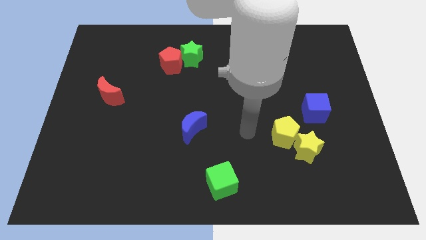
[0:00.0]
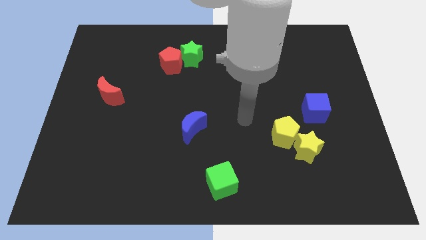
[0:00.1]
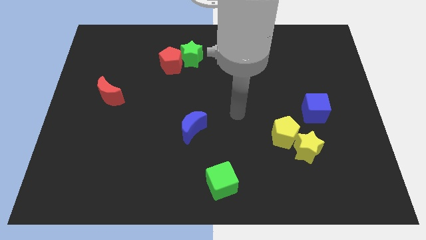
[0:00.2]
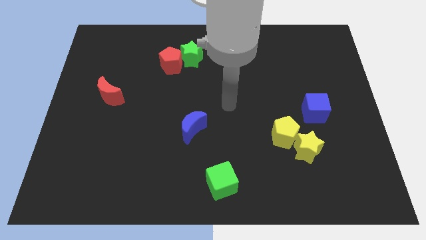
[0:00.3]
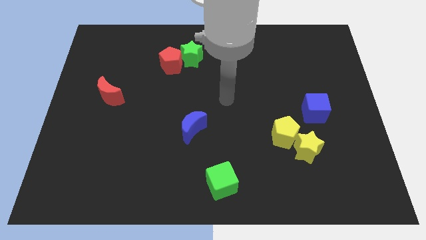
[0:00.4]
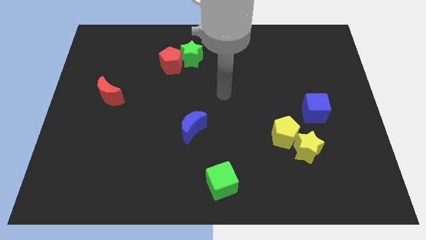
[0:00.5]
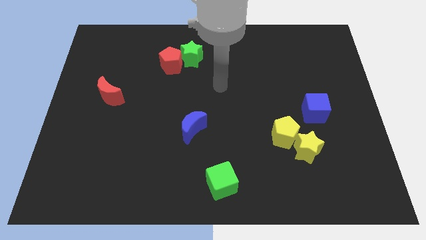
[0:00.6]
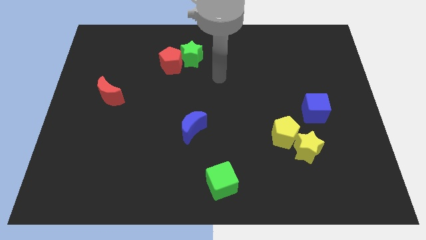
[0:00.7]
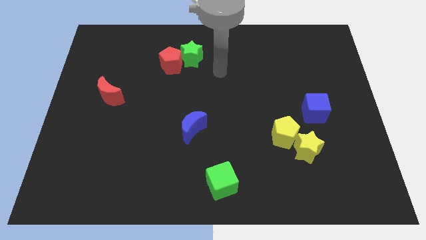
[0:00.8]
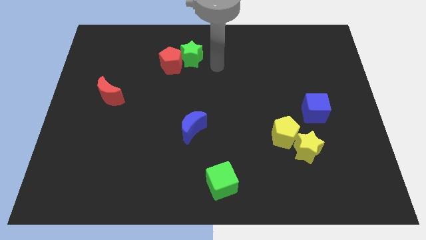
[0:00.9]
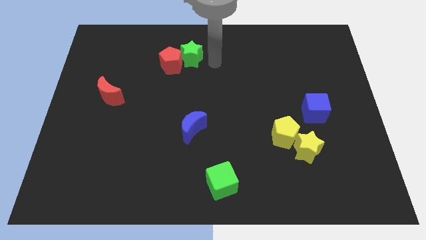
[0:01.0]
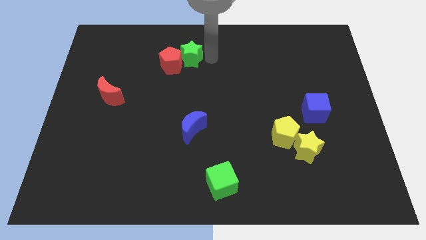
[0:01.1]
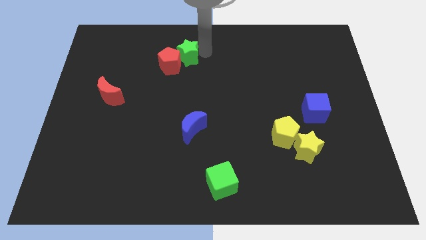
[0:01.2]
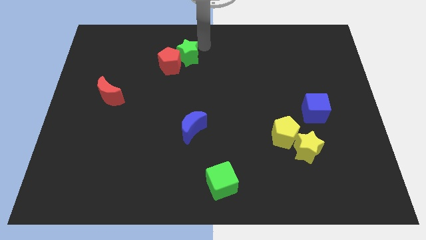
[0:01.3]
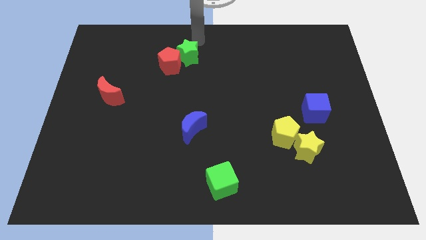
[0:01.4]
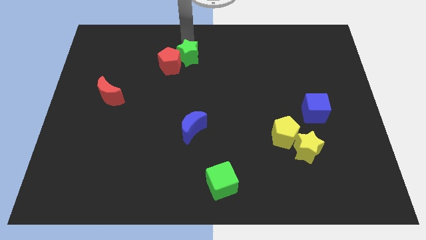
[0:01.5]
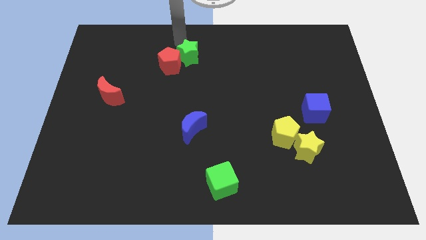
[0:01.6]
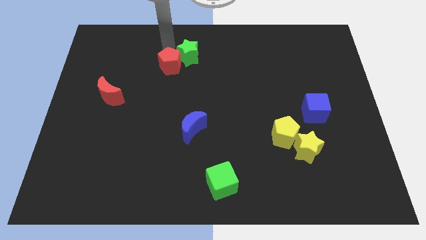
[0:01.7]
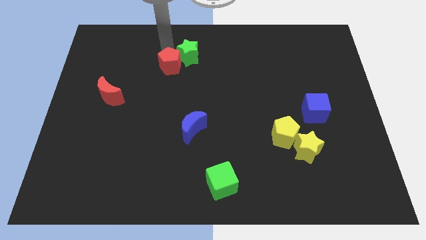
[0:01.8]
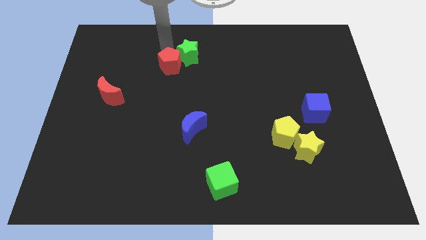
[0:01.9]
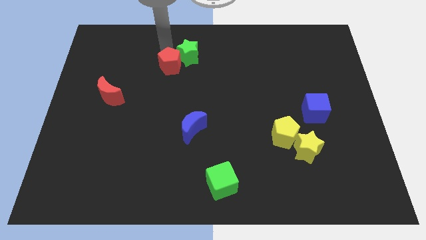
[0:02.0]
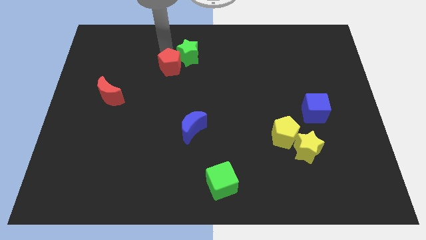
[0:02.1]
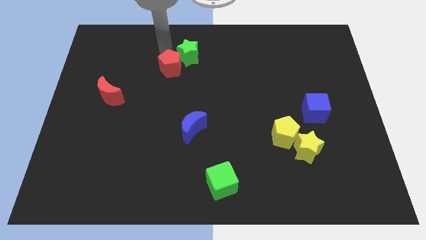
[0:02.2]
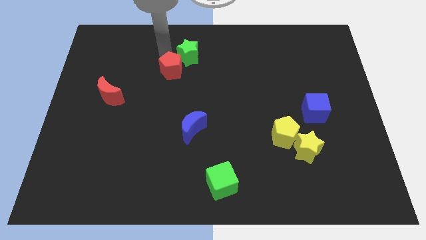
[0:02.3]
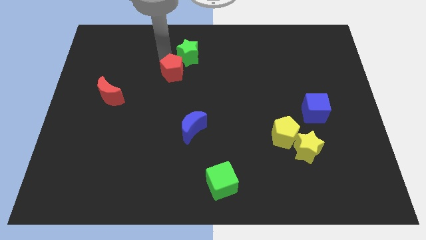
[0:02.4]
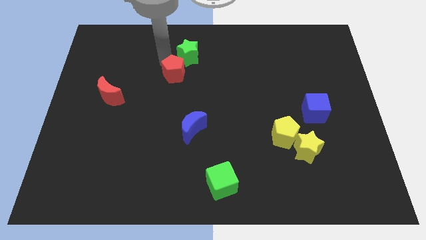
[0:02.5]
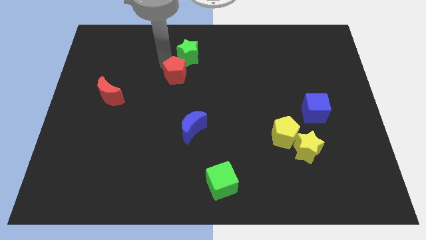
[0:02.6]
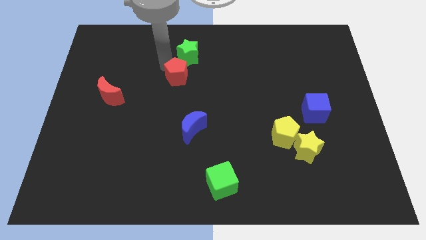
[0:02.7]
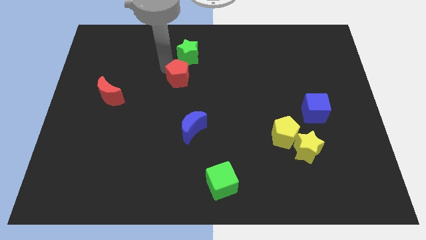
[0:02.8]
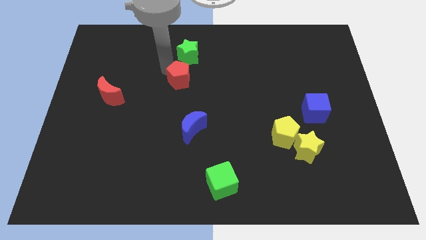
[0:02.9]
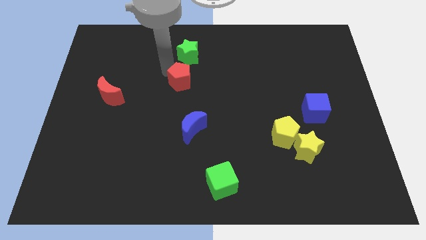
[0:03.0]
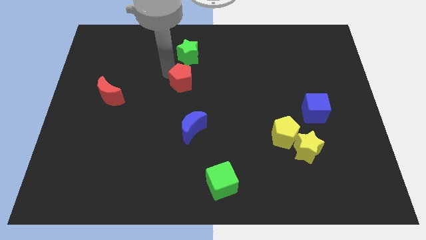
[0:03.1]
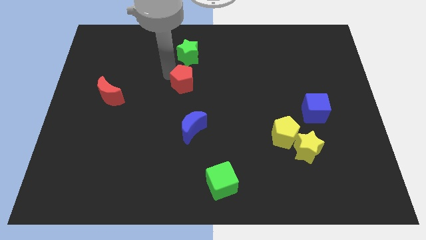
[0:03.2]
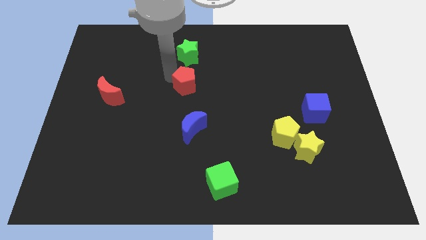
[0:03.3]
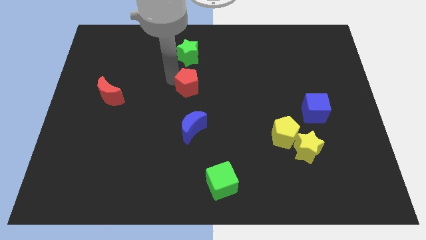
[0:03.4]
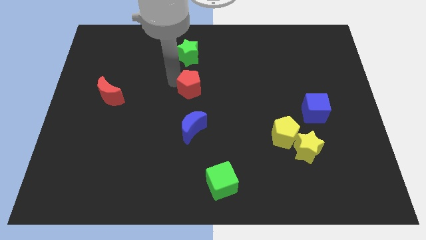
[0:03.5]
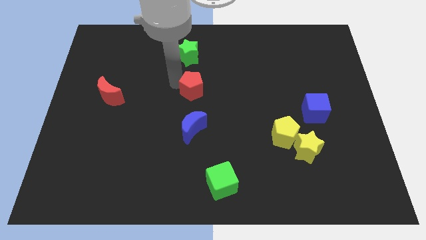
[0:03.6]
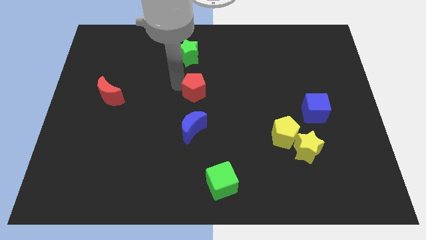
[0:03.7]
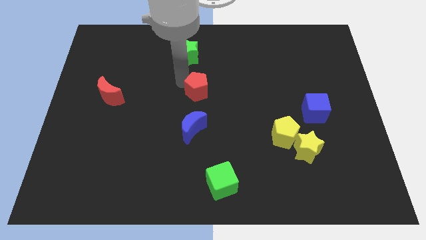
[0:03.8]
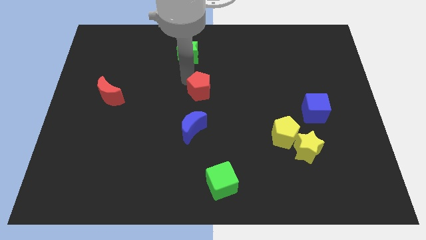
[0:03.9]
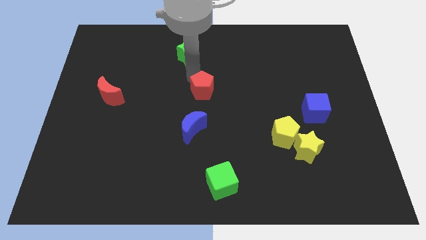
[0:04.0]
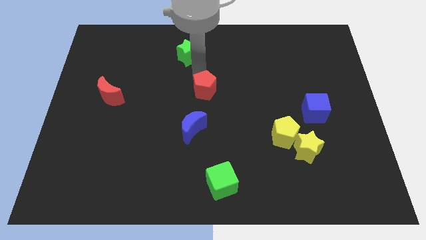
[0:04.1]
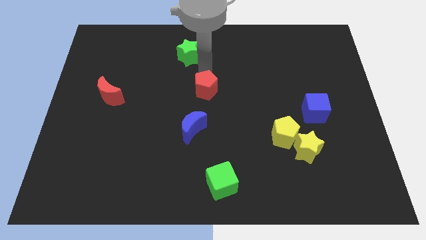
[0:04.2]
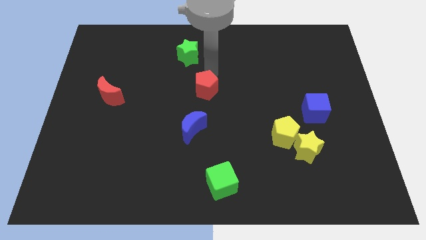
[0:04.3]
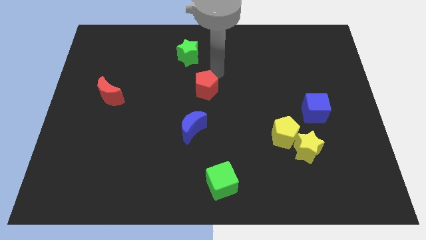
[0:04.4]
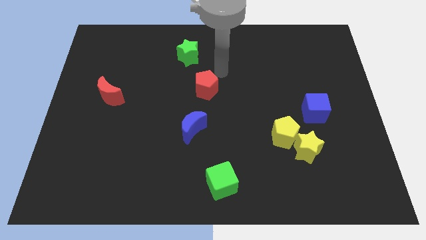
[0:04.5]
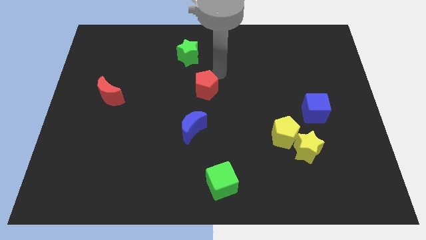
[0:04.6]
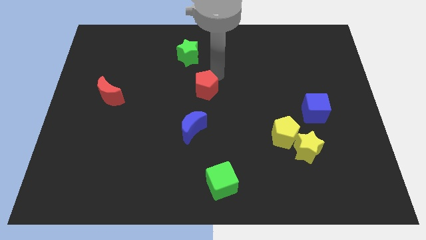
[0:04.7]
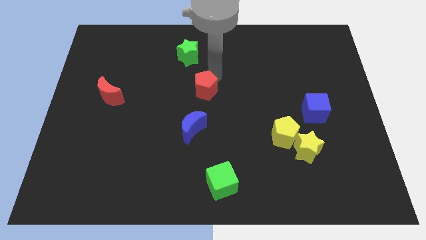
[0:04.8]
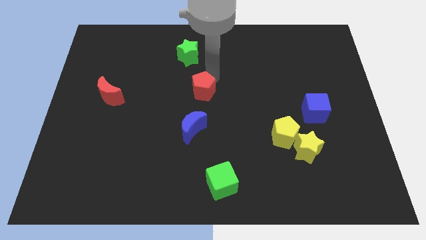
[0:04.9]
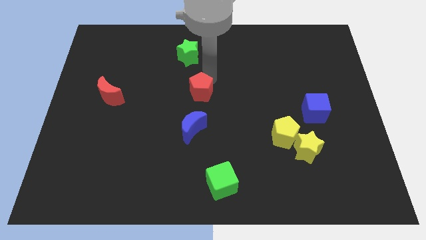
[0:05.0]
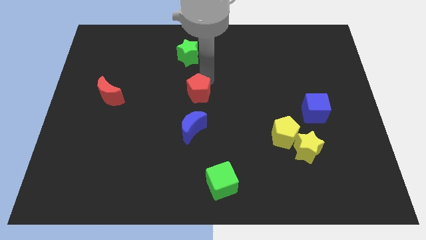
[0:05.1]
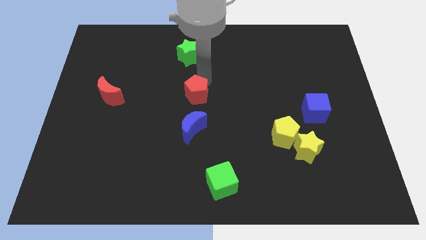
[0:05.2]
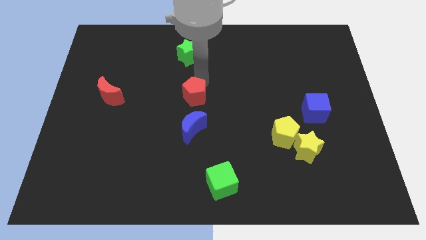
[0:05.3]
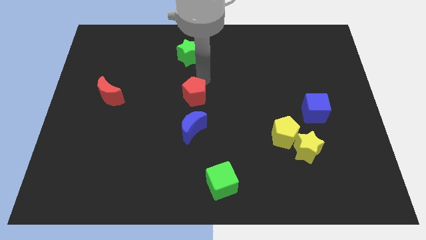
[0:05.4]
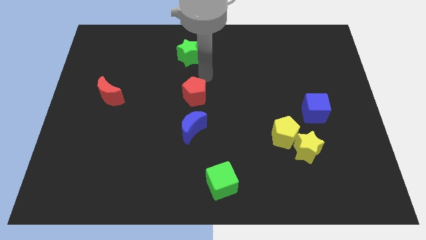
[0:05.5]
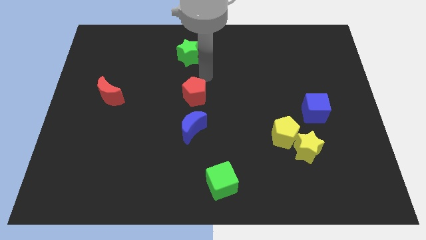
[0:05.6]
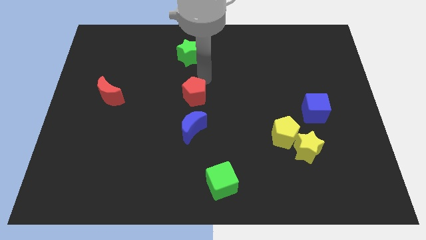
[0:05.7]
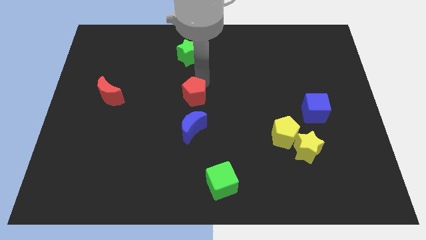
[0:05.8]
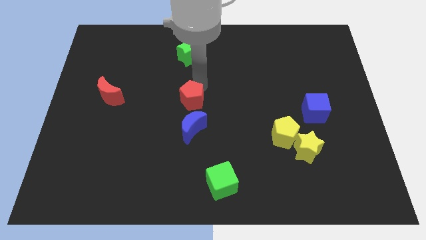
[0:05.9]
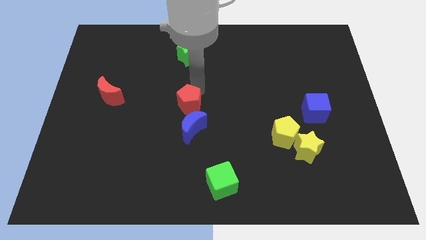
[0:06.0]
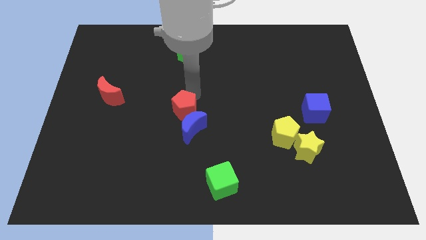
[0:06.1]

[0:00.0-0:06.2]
move the red pentagon to the blue moon

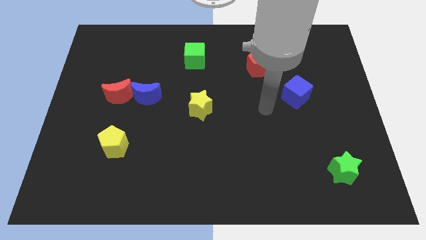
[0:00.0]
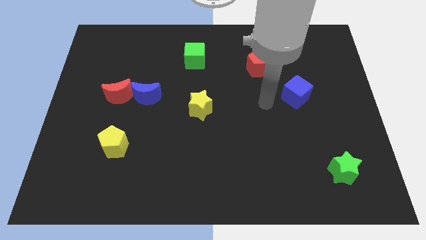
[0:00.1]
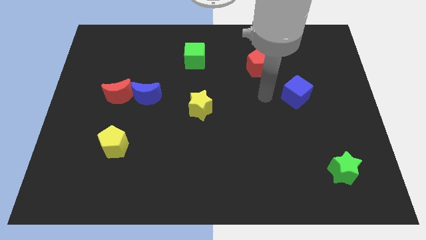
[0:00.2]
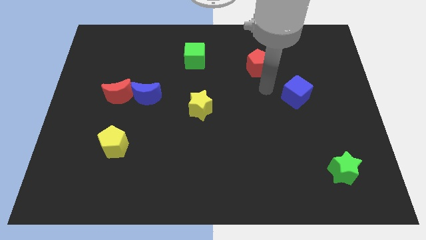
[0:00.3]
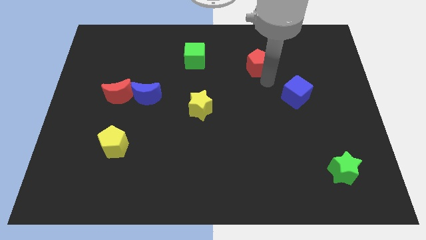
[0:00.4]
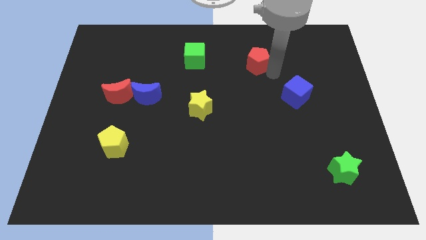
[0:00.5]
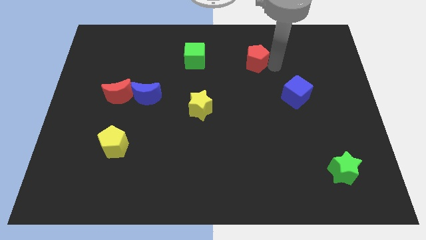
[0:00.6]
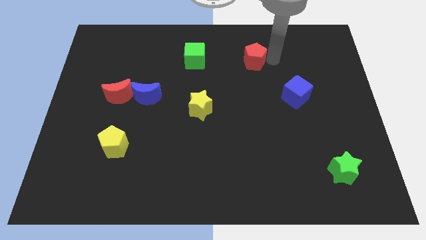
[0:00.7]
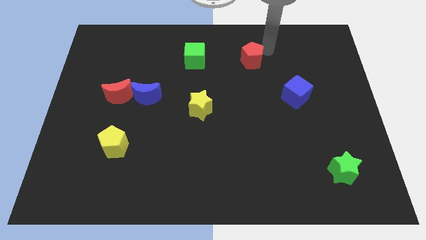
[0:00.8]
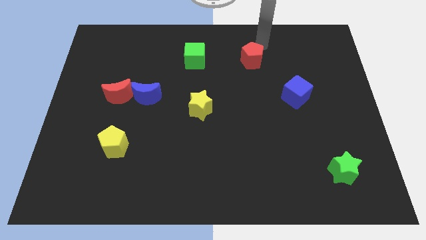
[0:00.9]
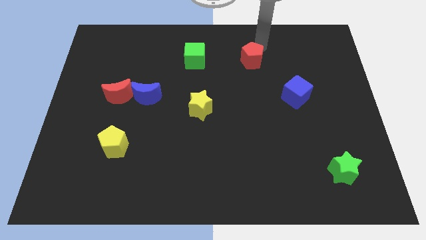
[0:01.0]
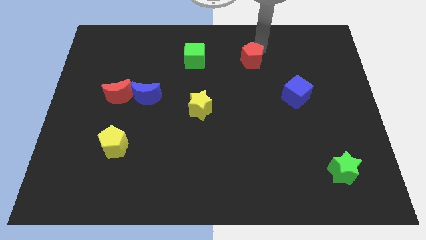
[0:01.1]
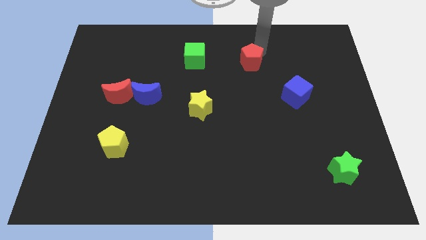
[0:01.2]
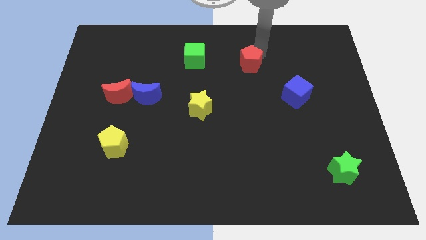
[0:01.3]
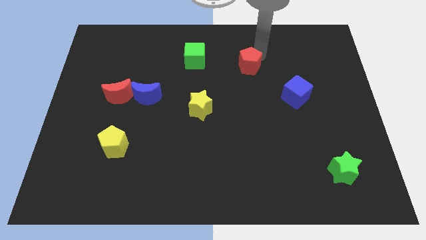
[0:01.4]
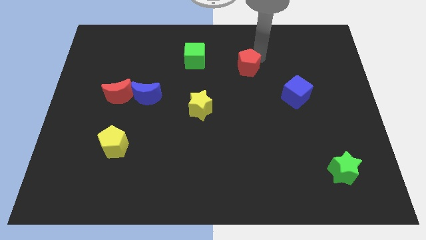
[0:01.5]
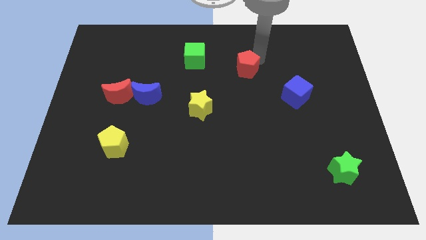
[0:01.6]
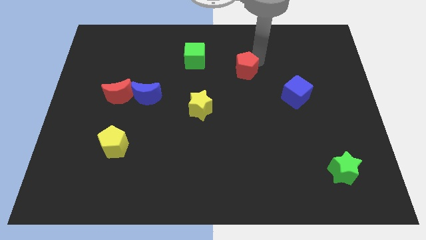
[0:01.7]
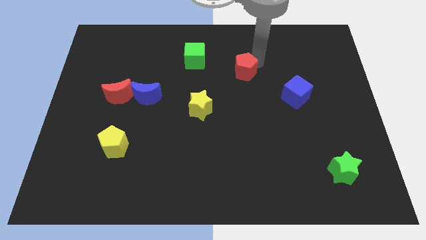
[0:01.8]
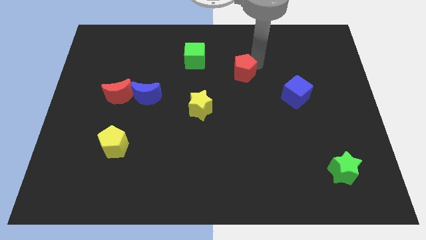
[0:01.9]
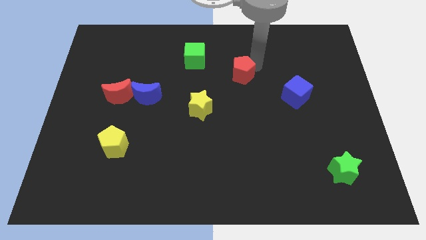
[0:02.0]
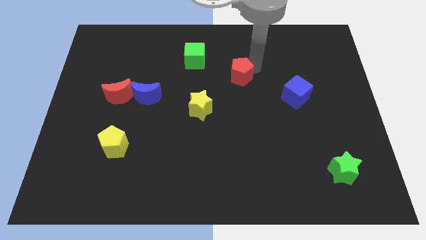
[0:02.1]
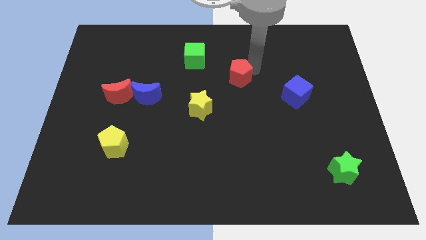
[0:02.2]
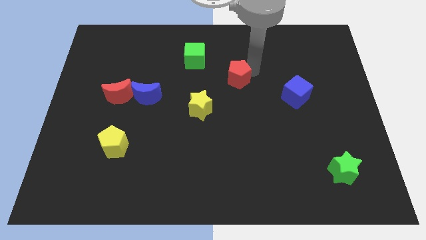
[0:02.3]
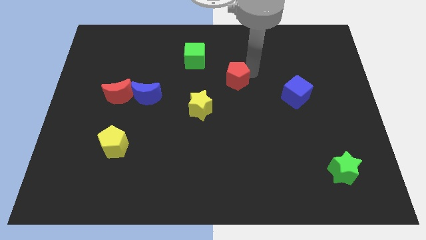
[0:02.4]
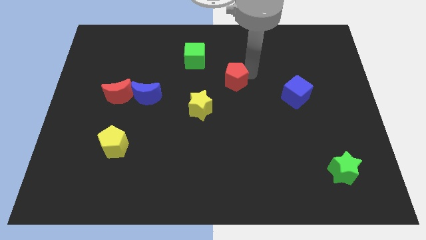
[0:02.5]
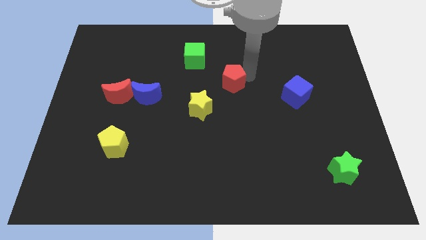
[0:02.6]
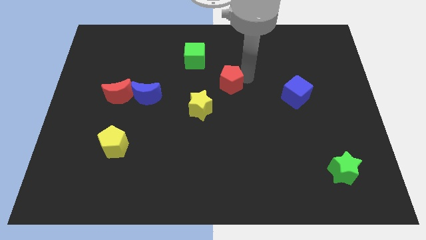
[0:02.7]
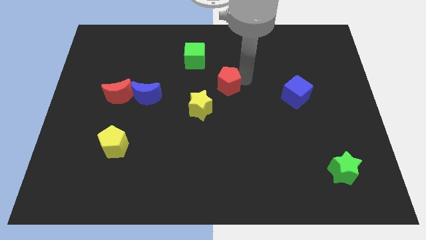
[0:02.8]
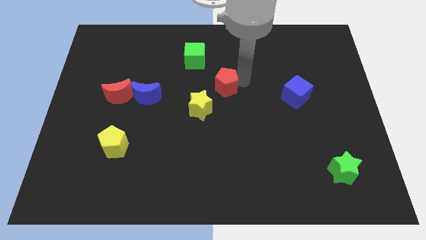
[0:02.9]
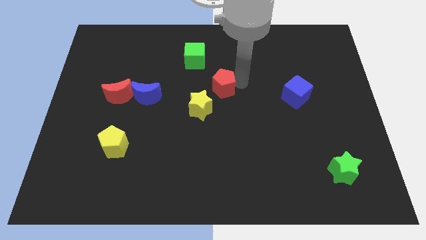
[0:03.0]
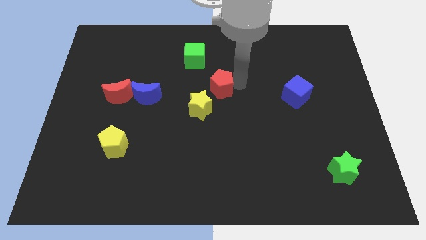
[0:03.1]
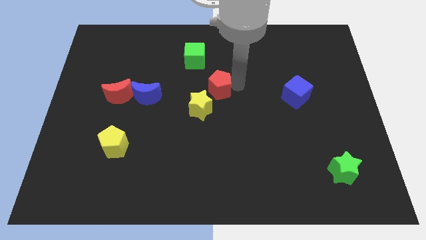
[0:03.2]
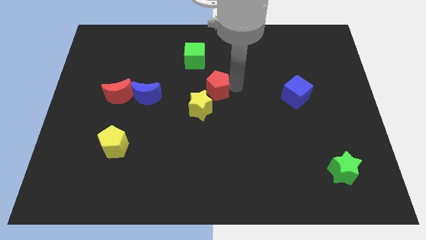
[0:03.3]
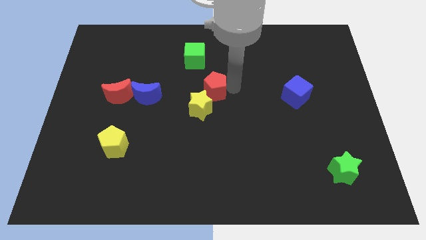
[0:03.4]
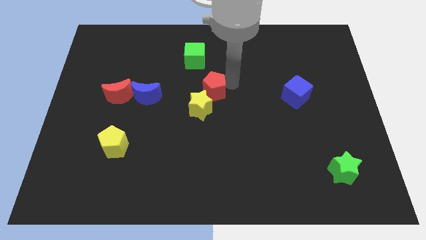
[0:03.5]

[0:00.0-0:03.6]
slide the red pentagon next to the yellow star
